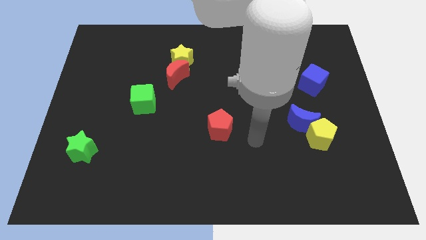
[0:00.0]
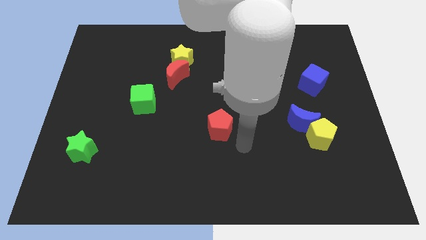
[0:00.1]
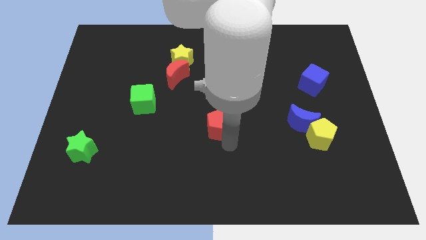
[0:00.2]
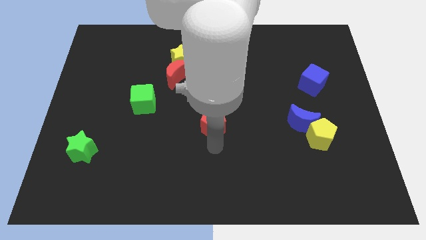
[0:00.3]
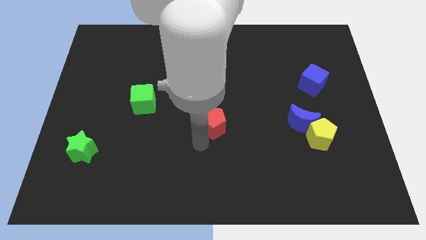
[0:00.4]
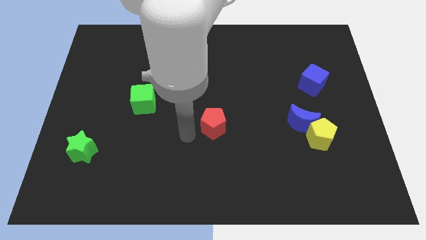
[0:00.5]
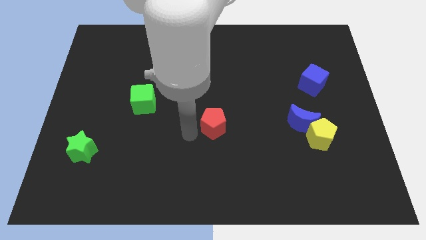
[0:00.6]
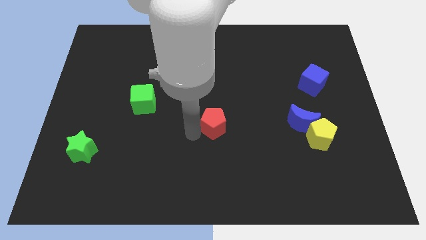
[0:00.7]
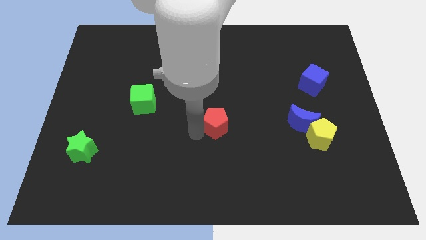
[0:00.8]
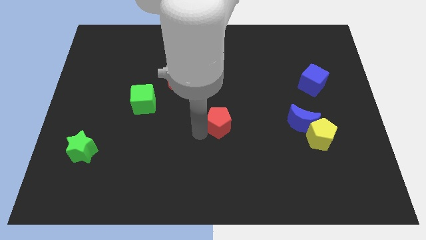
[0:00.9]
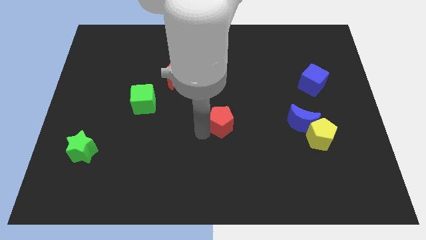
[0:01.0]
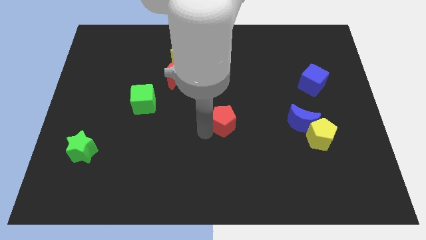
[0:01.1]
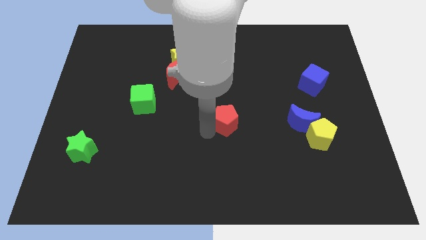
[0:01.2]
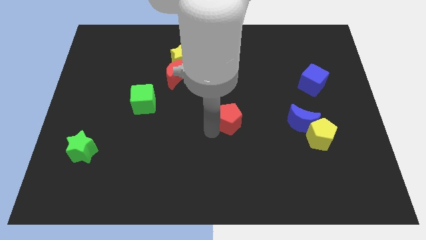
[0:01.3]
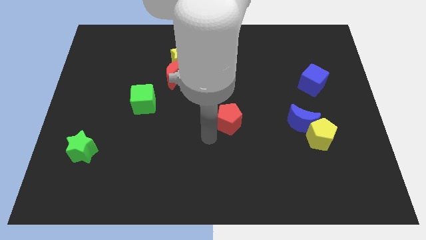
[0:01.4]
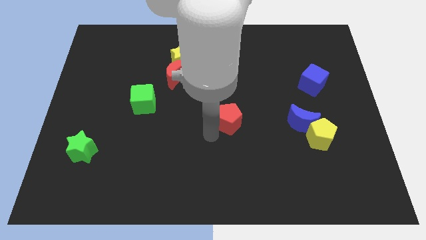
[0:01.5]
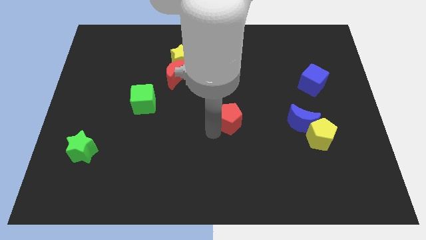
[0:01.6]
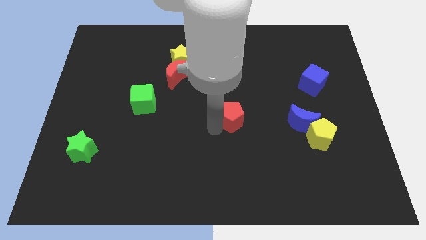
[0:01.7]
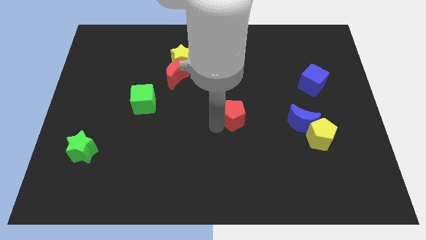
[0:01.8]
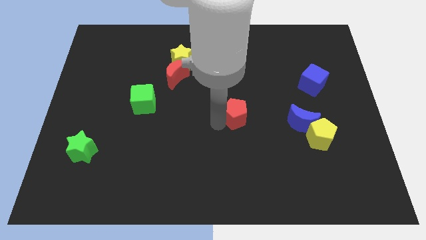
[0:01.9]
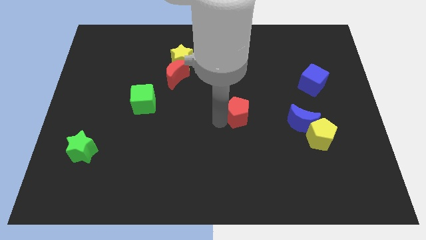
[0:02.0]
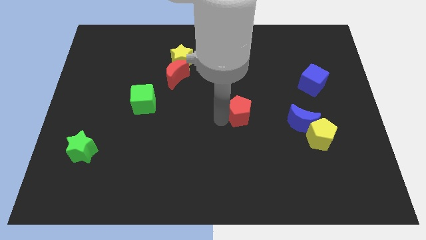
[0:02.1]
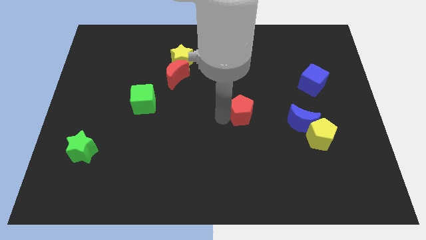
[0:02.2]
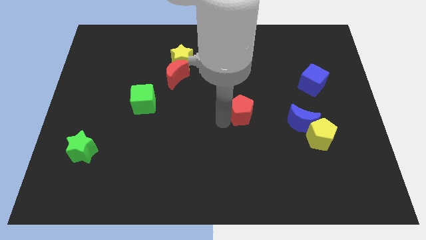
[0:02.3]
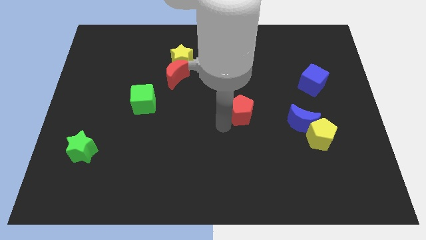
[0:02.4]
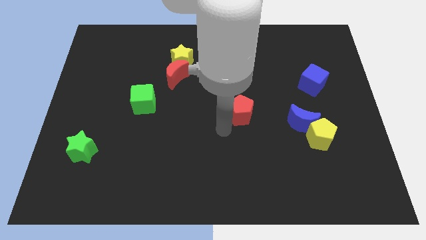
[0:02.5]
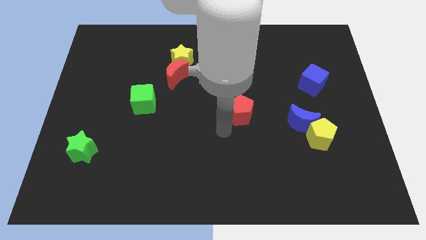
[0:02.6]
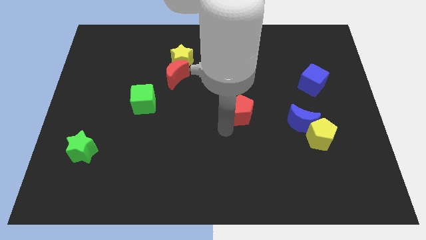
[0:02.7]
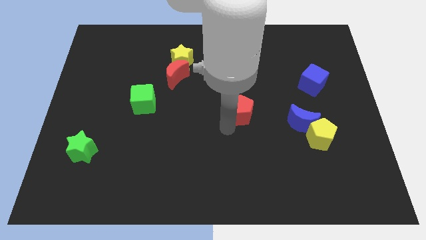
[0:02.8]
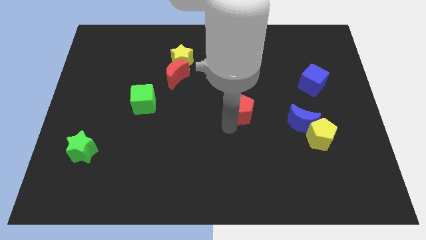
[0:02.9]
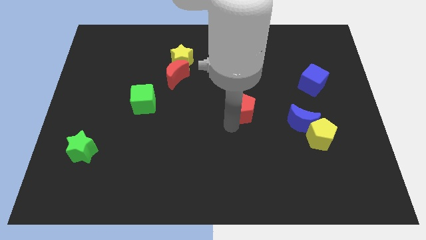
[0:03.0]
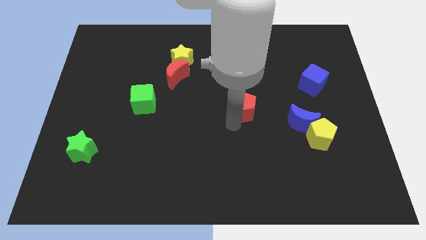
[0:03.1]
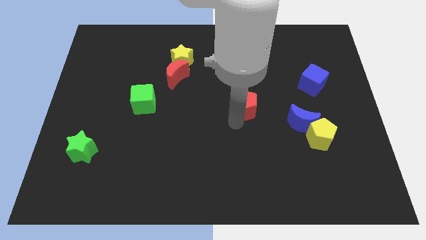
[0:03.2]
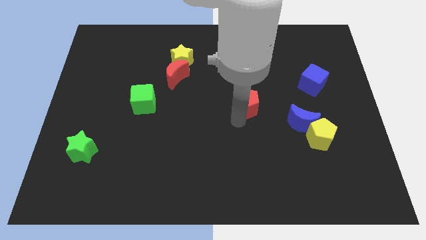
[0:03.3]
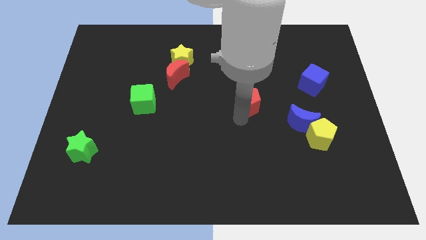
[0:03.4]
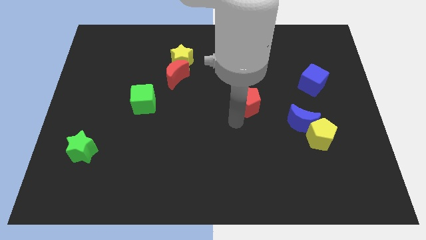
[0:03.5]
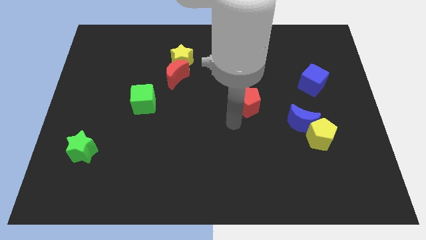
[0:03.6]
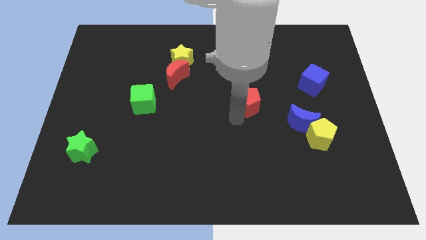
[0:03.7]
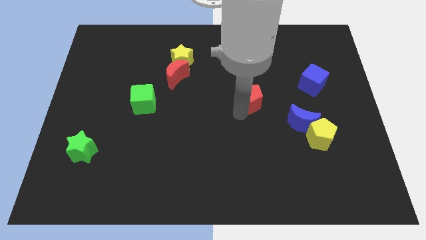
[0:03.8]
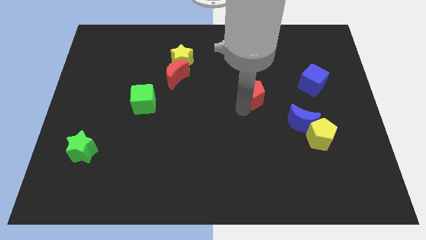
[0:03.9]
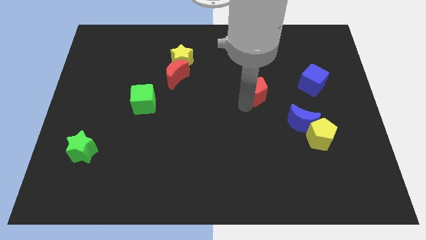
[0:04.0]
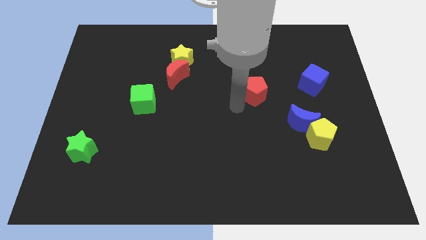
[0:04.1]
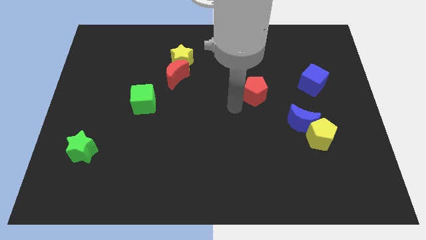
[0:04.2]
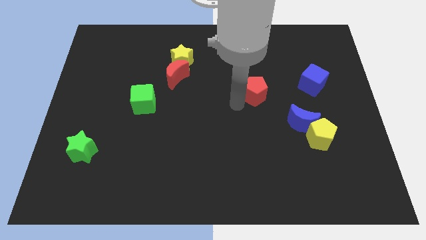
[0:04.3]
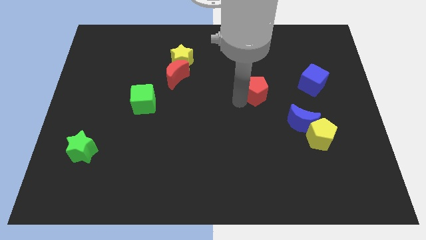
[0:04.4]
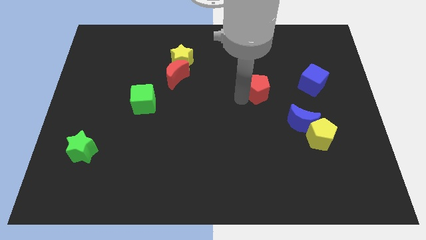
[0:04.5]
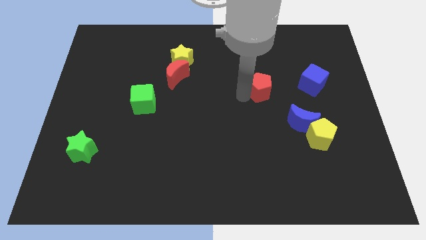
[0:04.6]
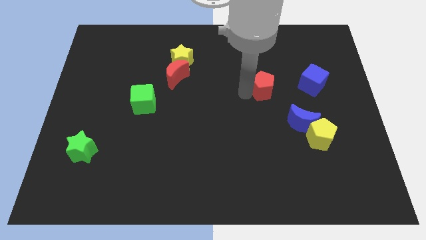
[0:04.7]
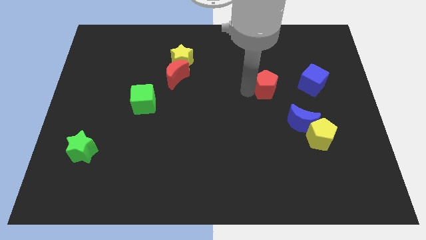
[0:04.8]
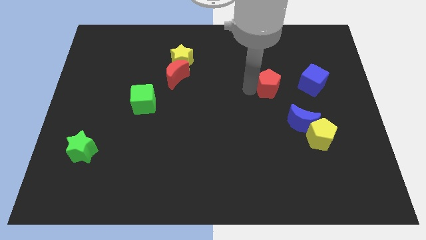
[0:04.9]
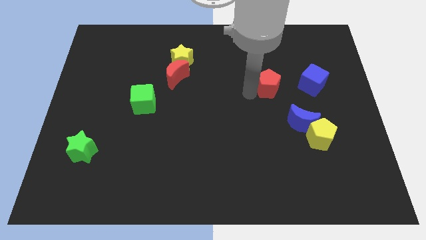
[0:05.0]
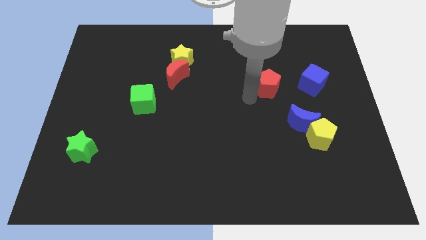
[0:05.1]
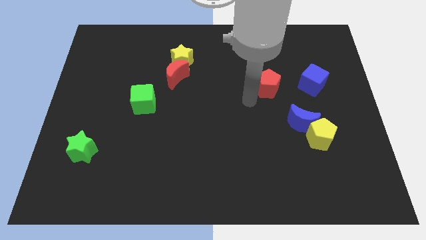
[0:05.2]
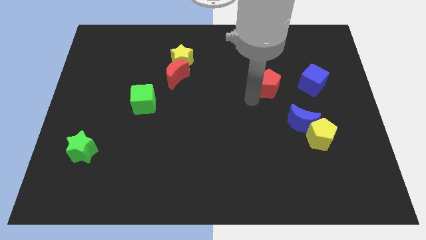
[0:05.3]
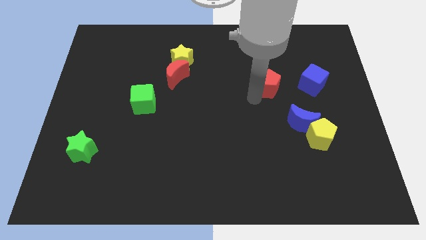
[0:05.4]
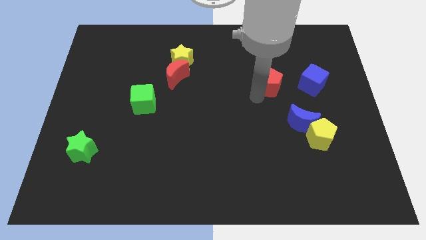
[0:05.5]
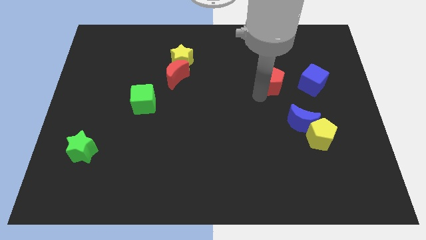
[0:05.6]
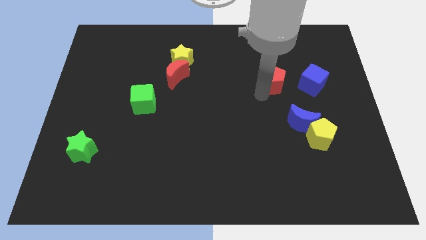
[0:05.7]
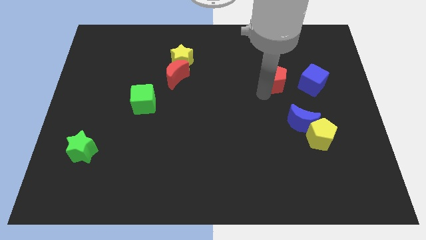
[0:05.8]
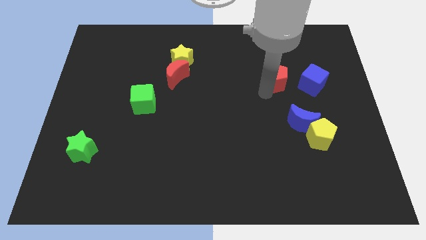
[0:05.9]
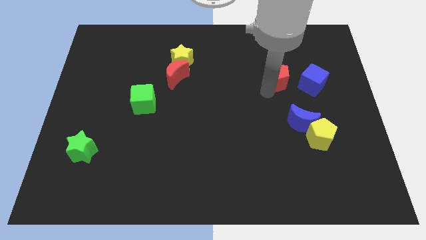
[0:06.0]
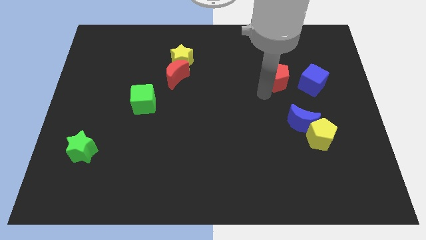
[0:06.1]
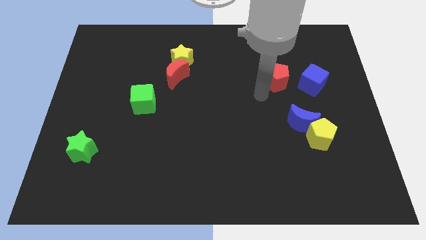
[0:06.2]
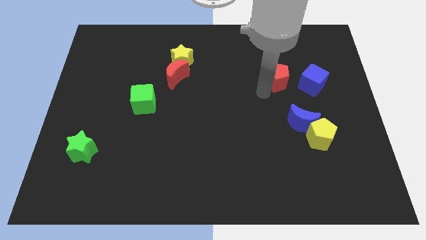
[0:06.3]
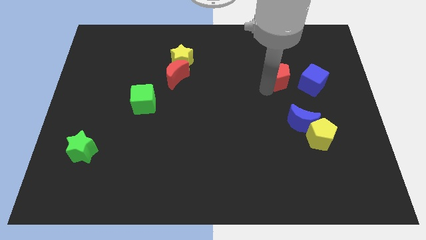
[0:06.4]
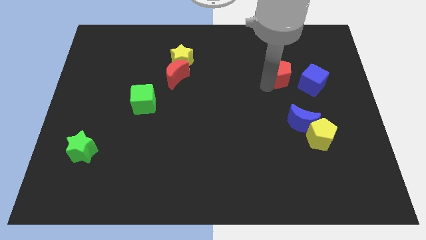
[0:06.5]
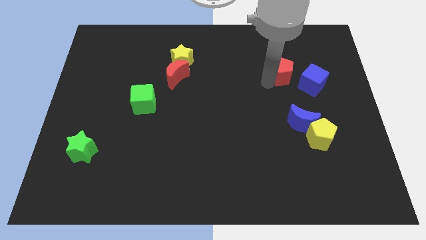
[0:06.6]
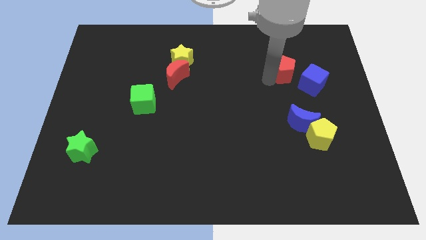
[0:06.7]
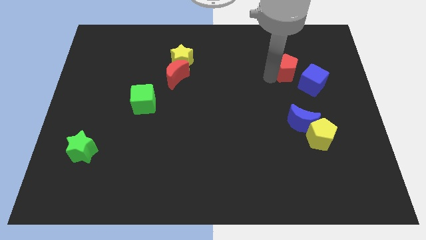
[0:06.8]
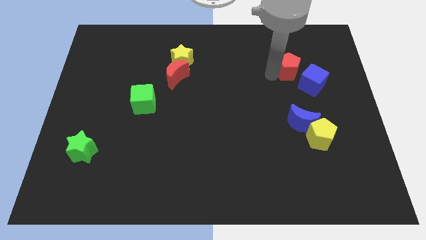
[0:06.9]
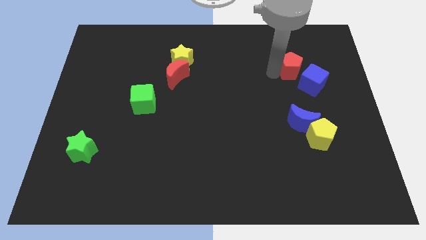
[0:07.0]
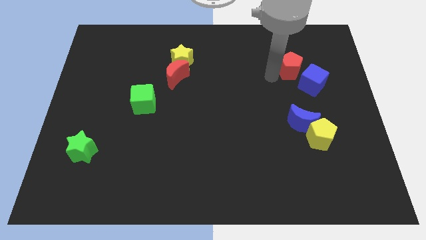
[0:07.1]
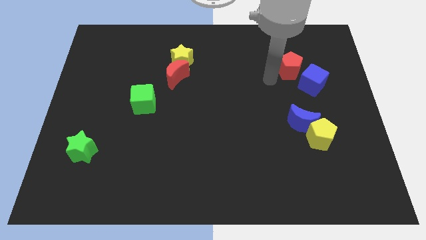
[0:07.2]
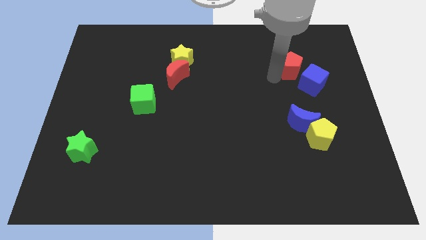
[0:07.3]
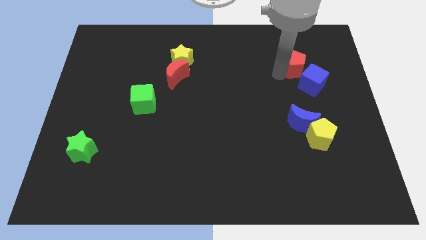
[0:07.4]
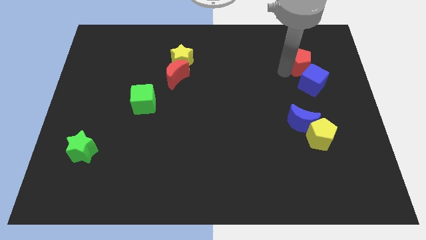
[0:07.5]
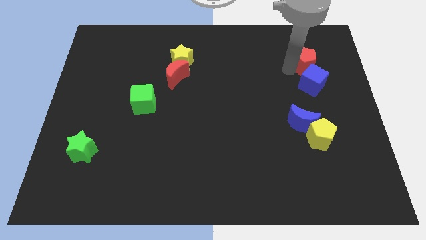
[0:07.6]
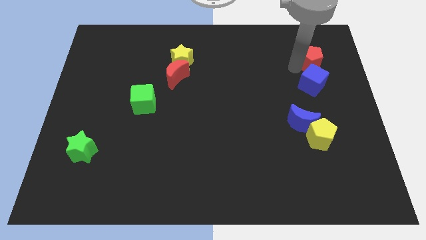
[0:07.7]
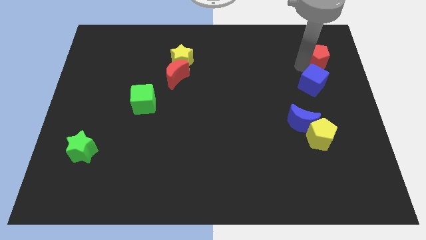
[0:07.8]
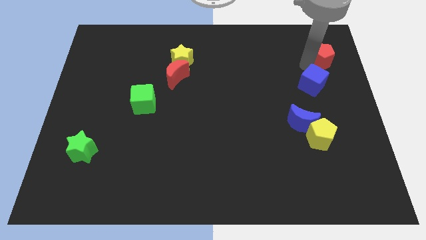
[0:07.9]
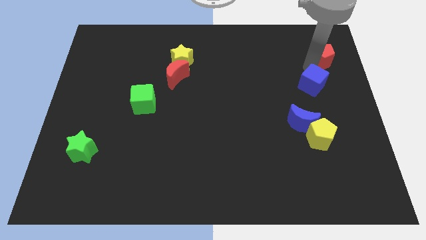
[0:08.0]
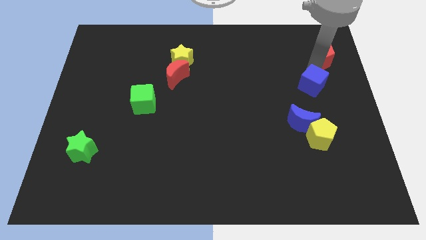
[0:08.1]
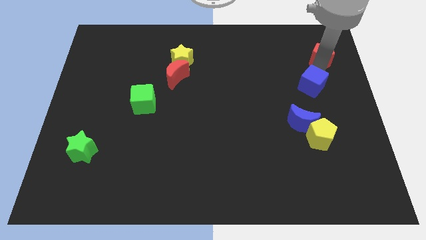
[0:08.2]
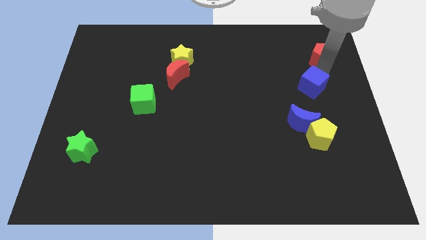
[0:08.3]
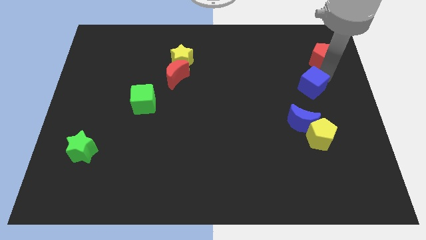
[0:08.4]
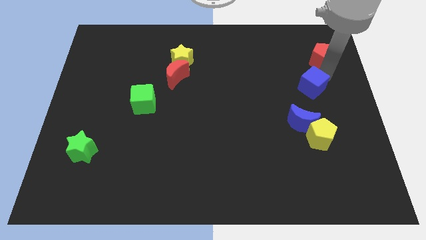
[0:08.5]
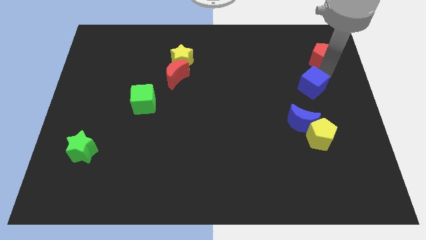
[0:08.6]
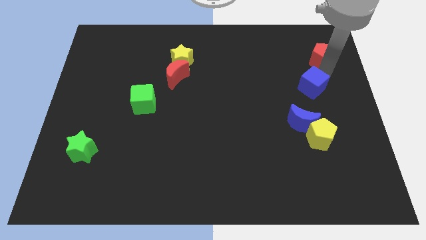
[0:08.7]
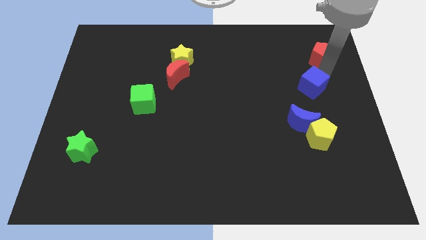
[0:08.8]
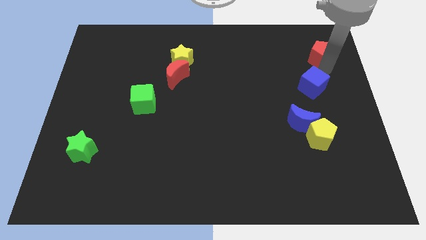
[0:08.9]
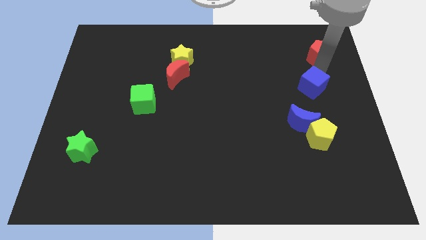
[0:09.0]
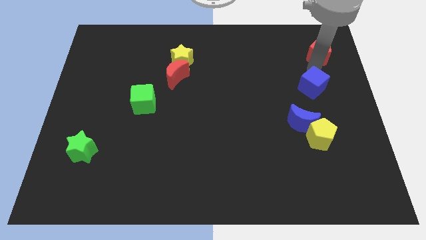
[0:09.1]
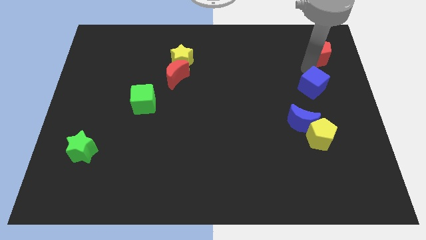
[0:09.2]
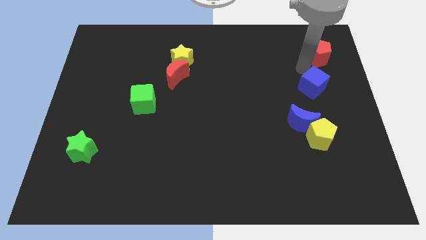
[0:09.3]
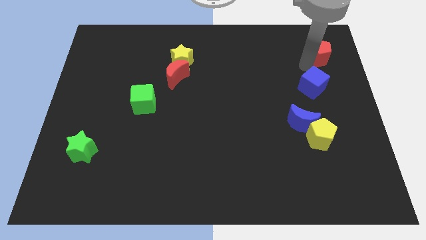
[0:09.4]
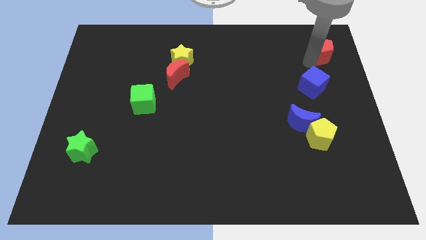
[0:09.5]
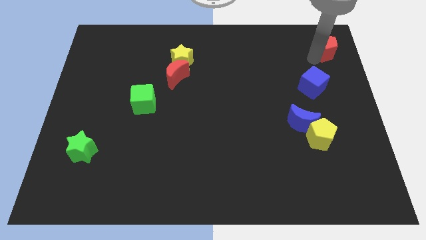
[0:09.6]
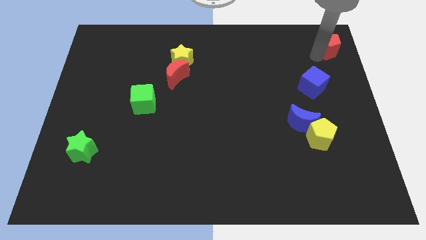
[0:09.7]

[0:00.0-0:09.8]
move the red pentagon to the top right corner
